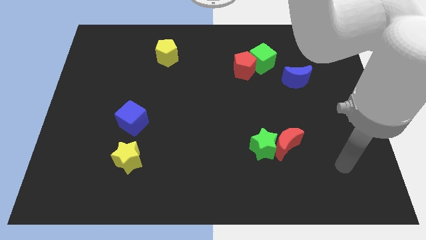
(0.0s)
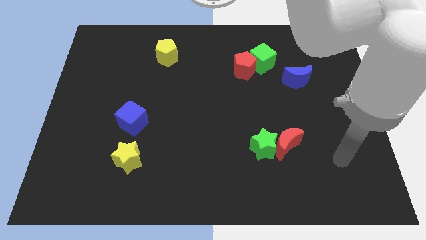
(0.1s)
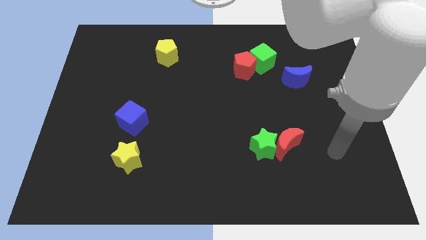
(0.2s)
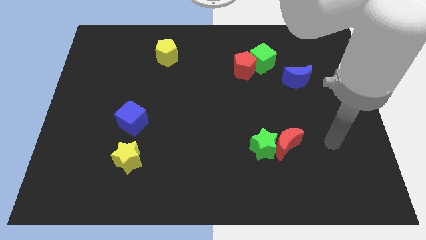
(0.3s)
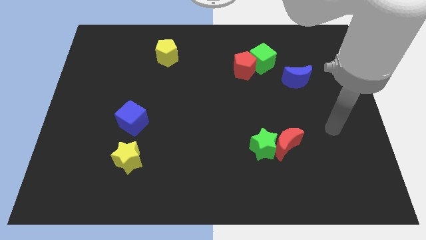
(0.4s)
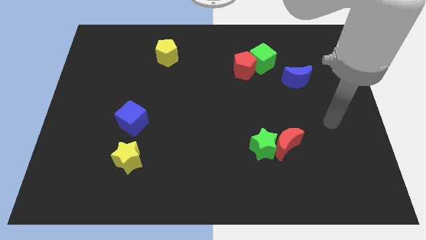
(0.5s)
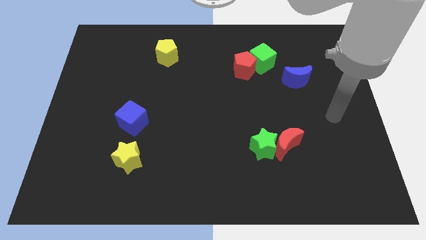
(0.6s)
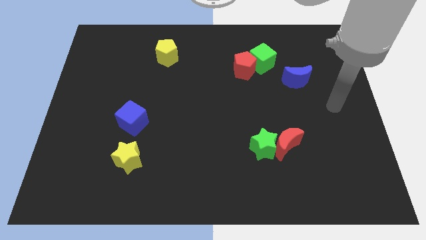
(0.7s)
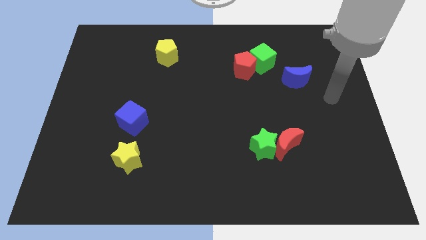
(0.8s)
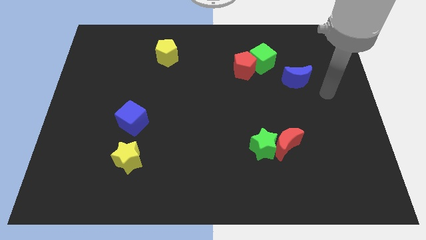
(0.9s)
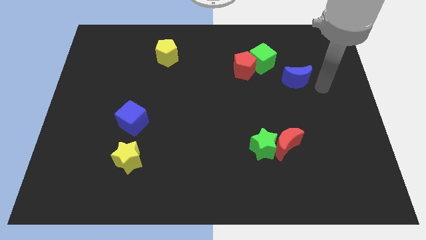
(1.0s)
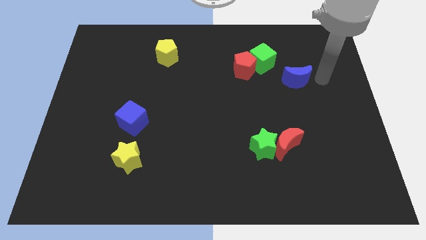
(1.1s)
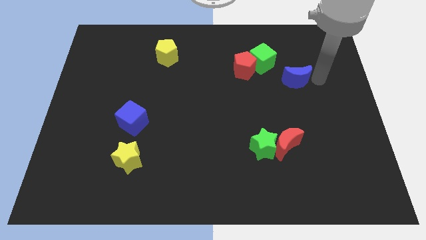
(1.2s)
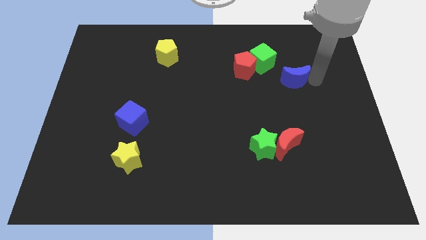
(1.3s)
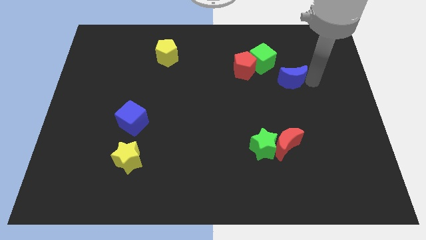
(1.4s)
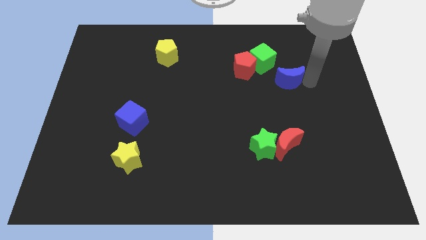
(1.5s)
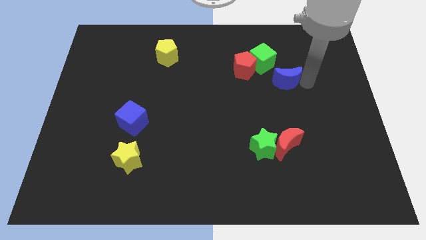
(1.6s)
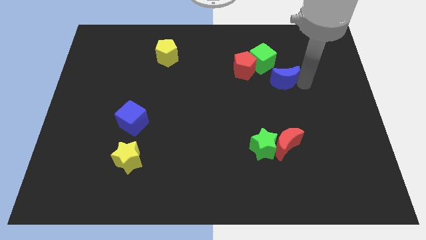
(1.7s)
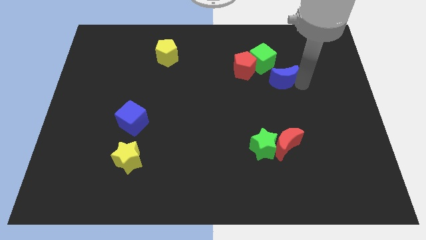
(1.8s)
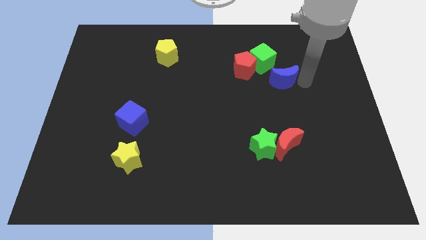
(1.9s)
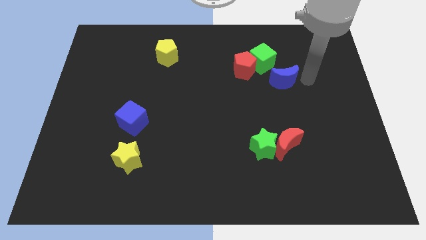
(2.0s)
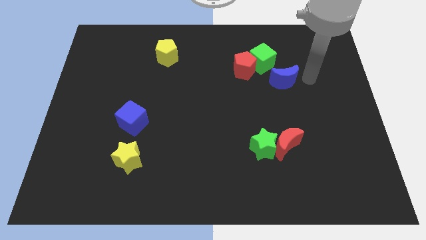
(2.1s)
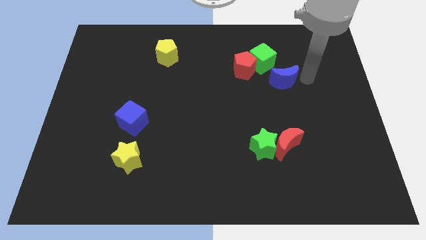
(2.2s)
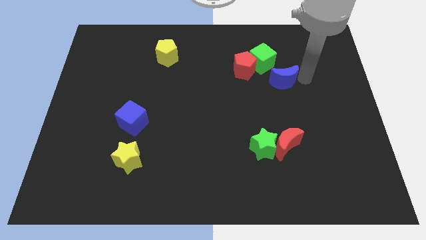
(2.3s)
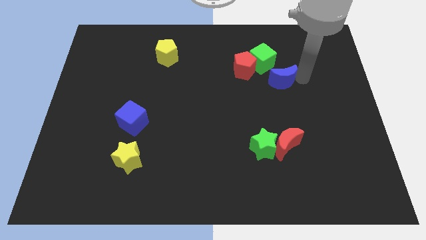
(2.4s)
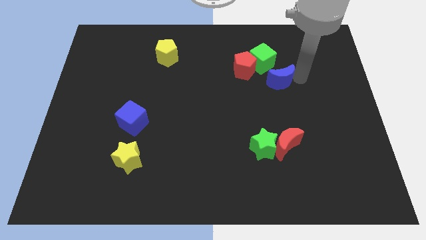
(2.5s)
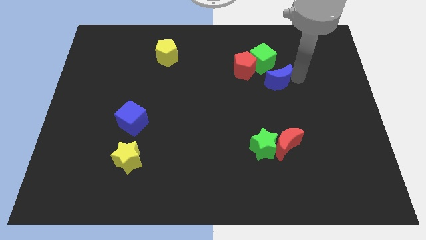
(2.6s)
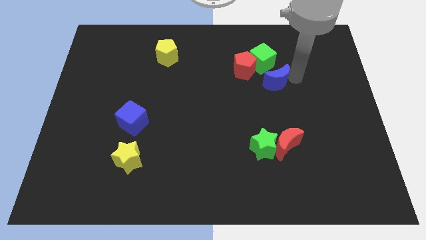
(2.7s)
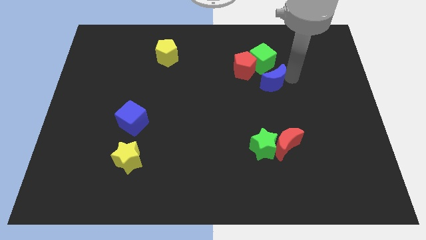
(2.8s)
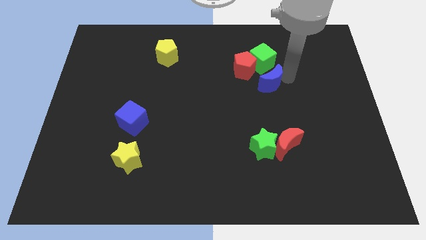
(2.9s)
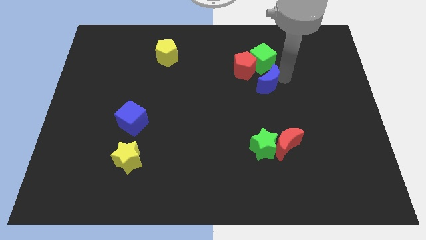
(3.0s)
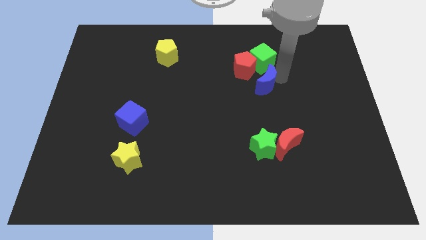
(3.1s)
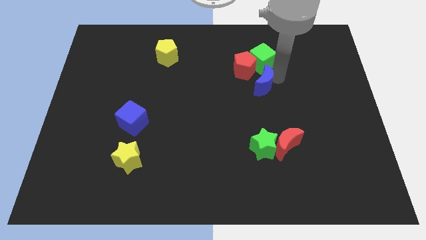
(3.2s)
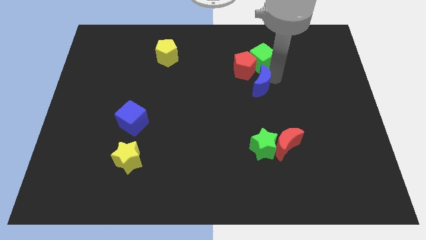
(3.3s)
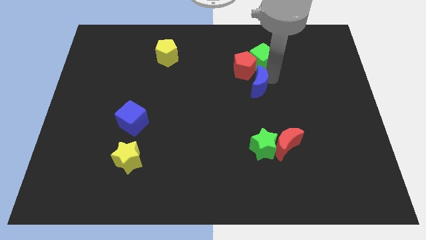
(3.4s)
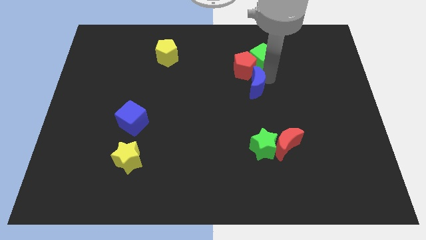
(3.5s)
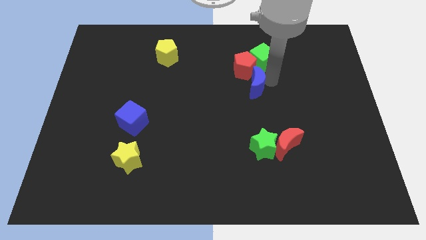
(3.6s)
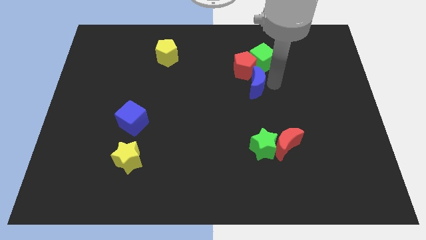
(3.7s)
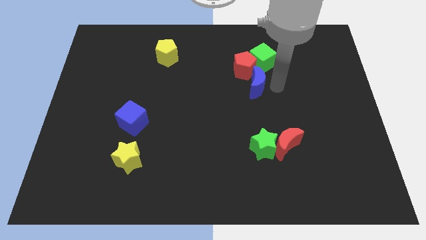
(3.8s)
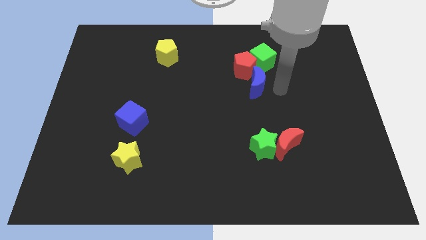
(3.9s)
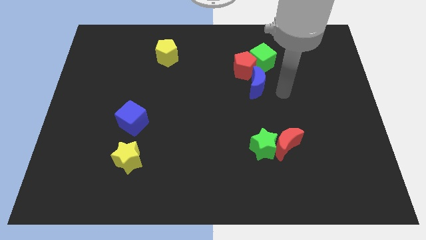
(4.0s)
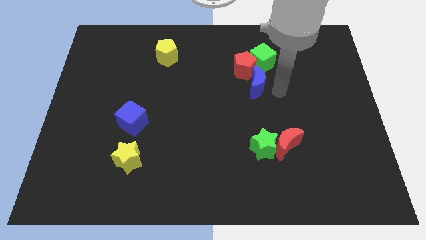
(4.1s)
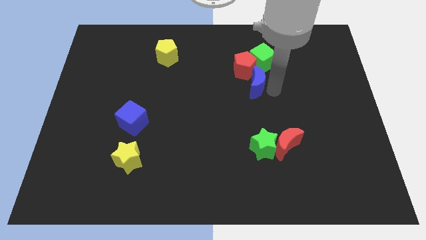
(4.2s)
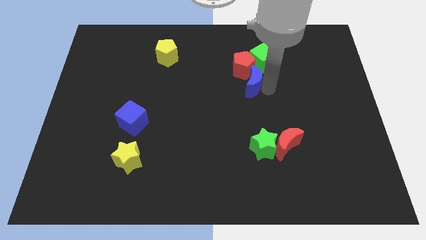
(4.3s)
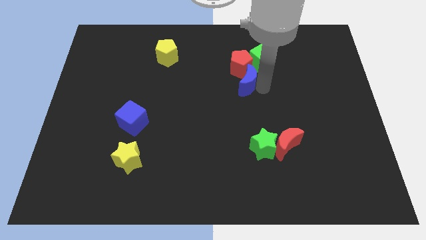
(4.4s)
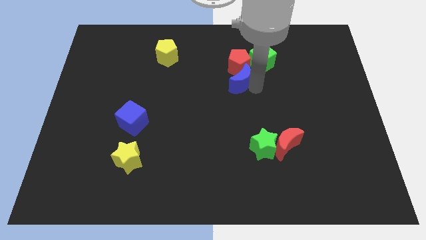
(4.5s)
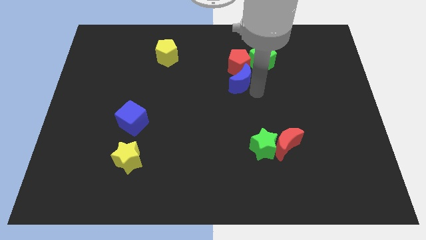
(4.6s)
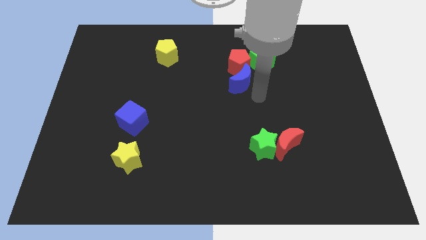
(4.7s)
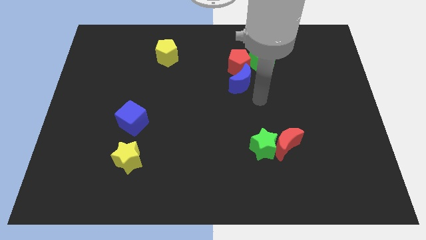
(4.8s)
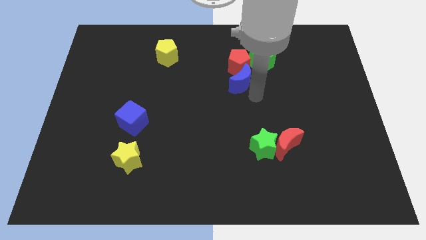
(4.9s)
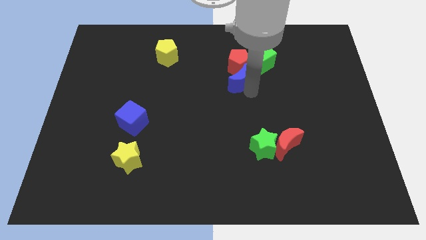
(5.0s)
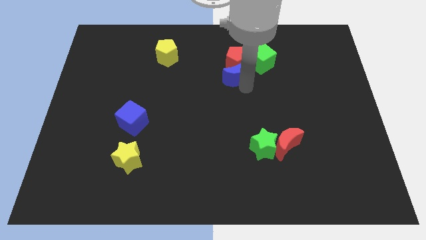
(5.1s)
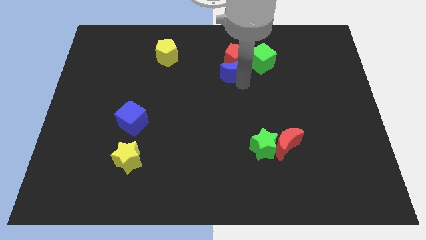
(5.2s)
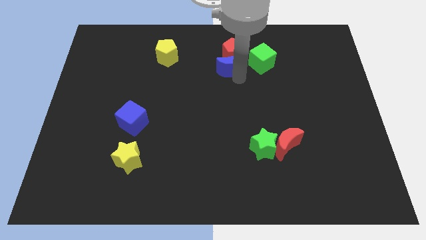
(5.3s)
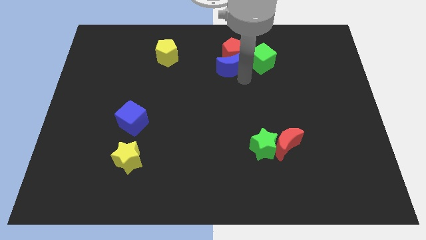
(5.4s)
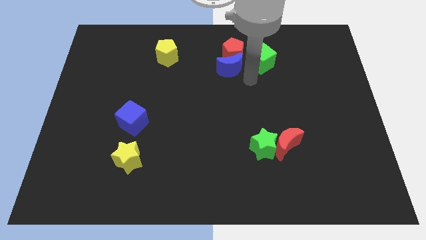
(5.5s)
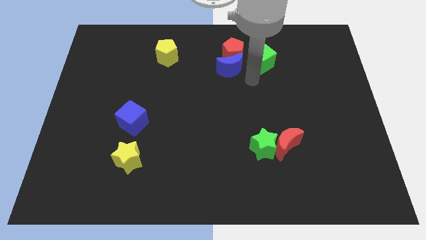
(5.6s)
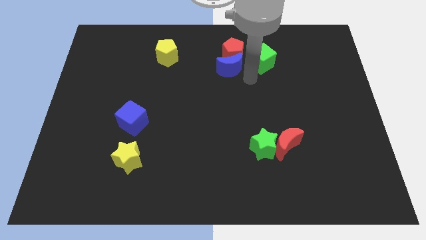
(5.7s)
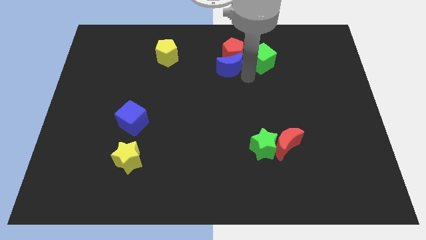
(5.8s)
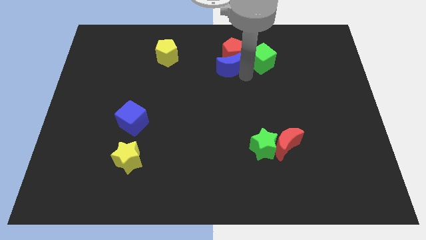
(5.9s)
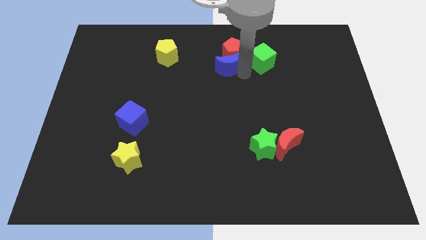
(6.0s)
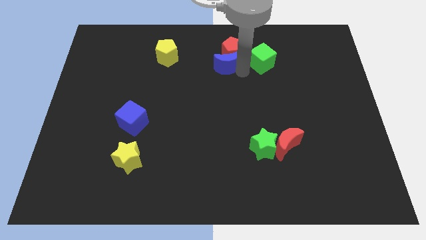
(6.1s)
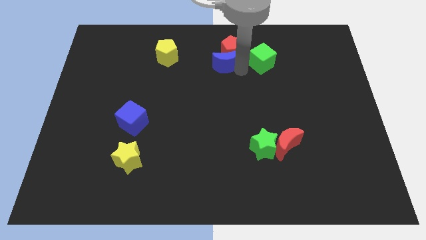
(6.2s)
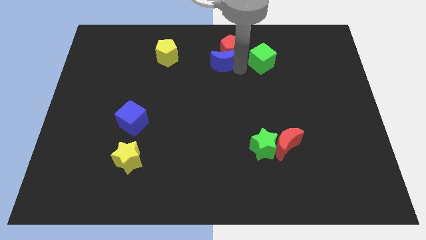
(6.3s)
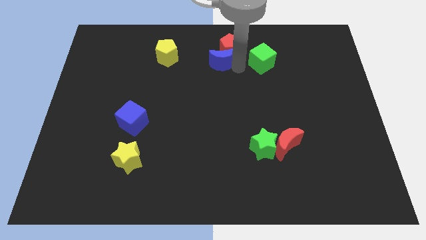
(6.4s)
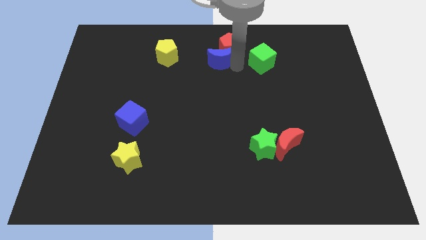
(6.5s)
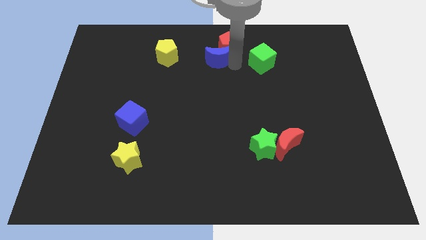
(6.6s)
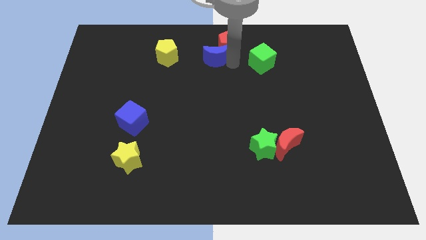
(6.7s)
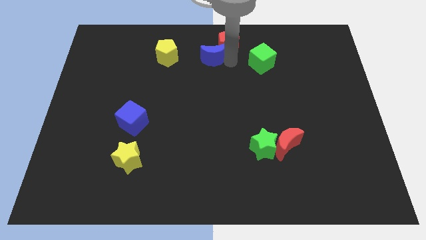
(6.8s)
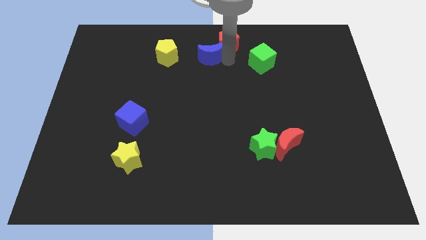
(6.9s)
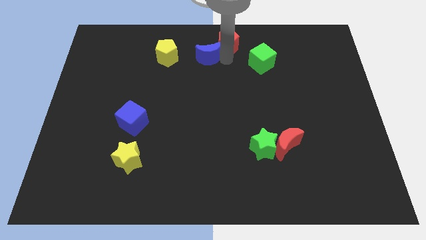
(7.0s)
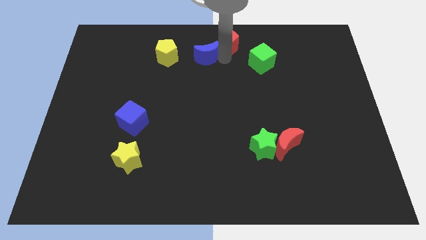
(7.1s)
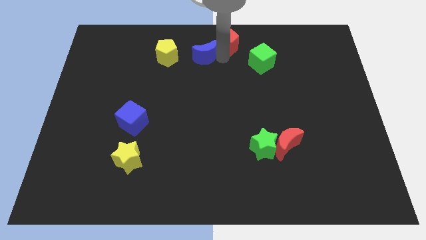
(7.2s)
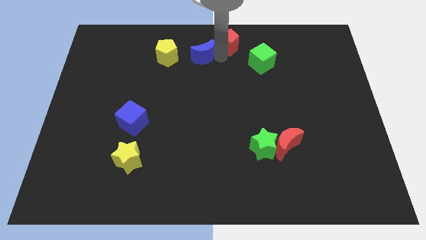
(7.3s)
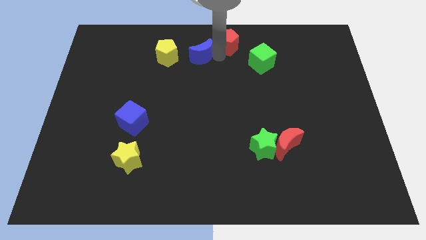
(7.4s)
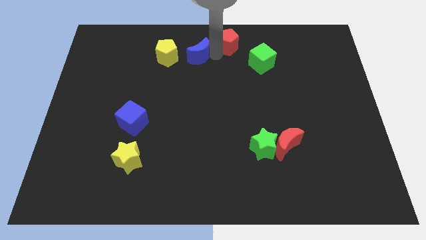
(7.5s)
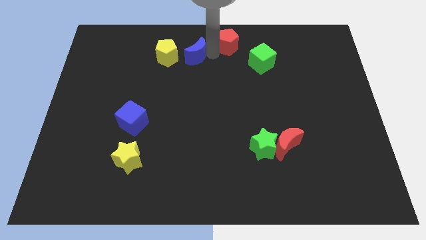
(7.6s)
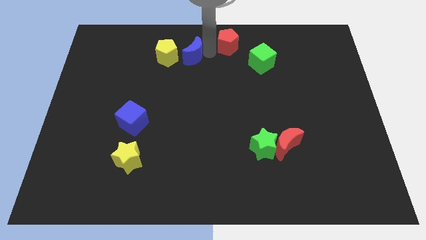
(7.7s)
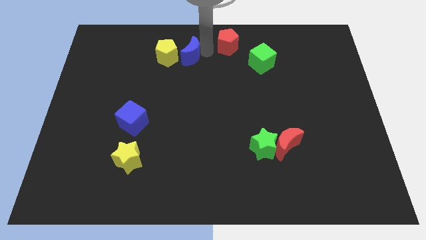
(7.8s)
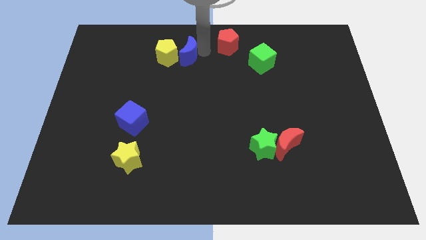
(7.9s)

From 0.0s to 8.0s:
push the blue moon towards the yellow pentagon
